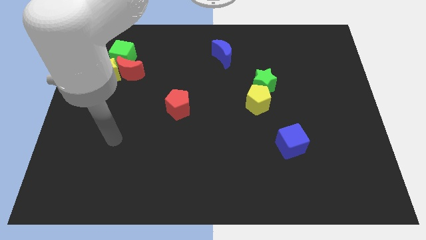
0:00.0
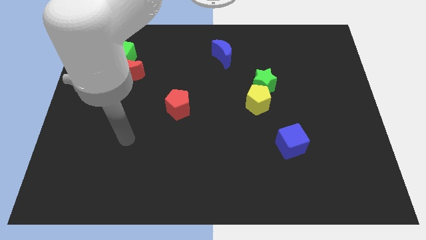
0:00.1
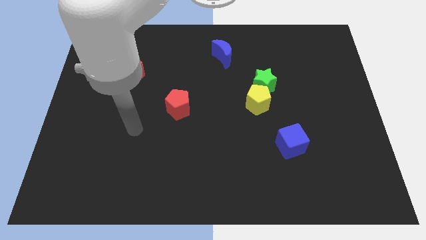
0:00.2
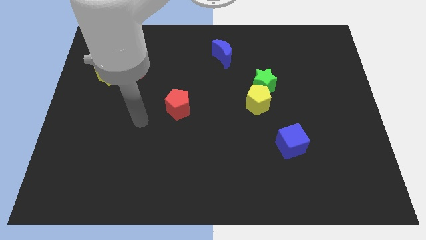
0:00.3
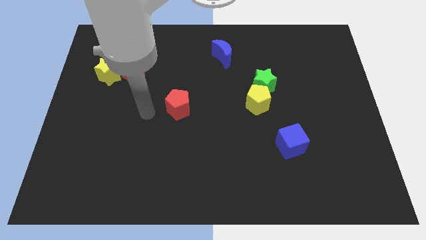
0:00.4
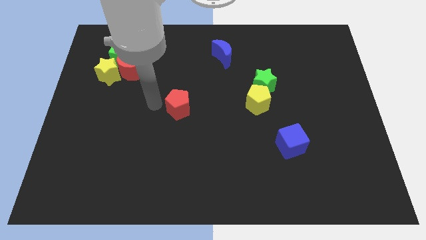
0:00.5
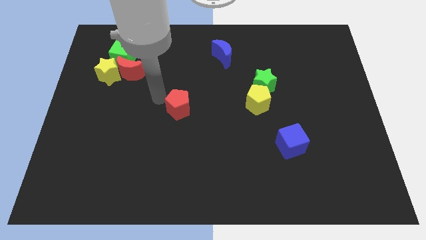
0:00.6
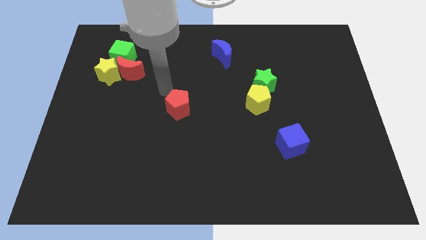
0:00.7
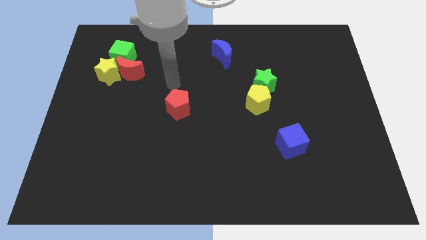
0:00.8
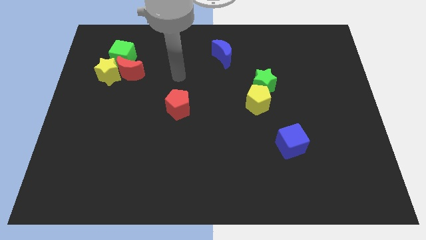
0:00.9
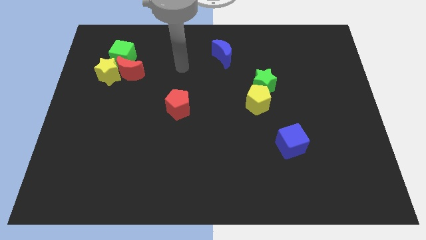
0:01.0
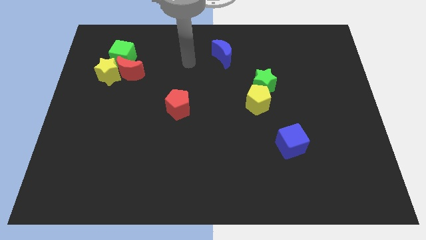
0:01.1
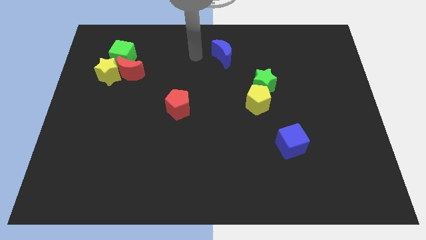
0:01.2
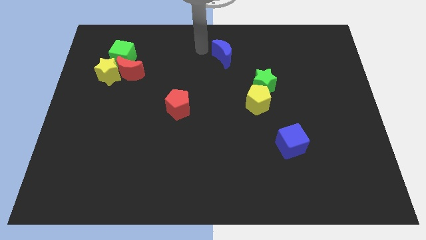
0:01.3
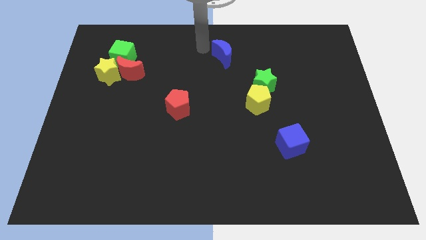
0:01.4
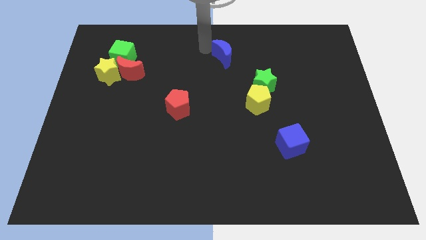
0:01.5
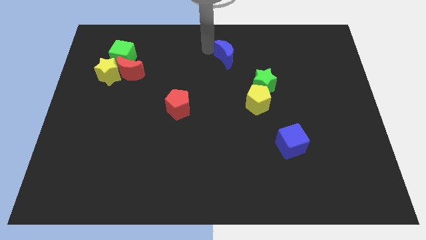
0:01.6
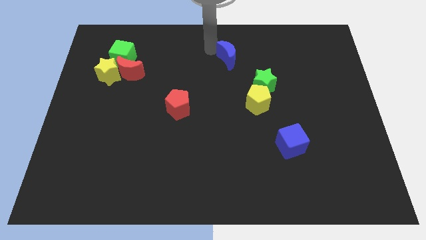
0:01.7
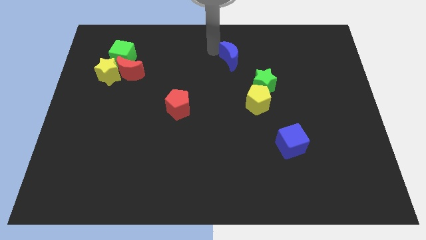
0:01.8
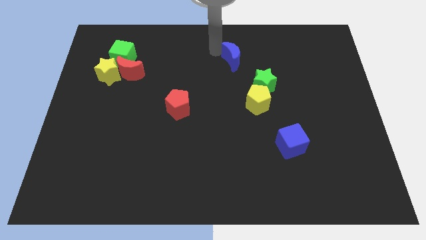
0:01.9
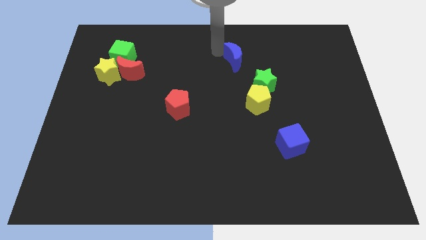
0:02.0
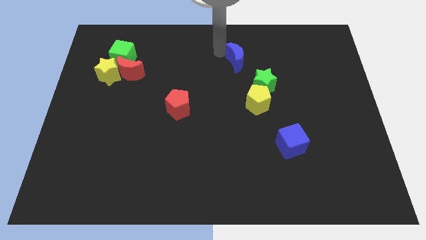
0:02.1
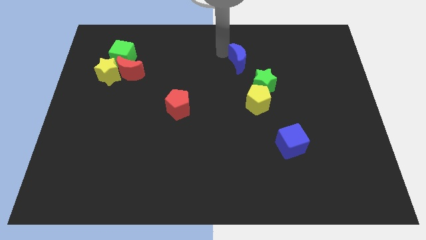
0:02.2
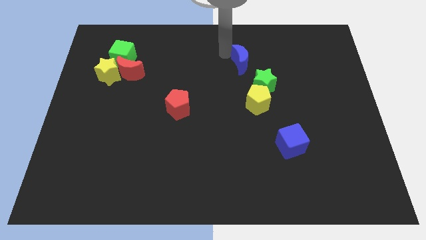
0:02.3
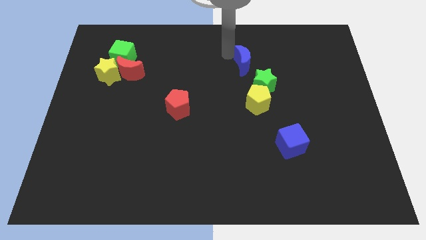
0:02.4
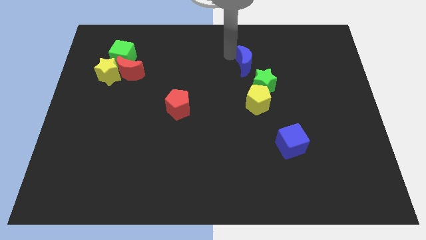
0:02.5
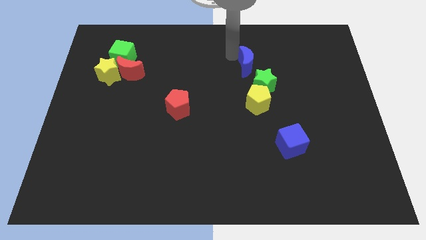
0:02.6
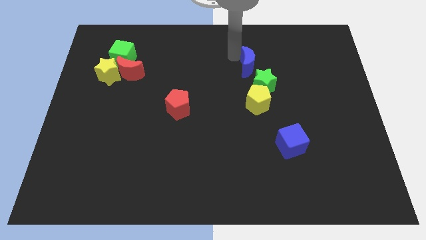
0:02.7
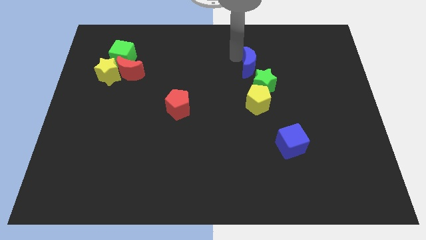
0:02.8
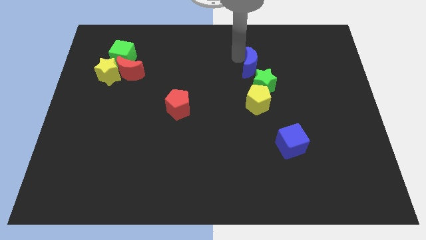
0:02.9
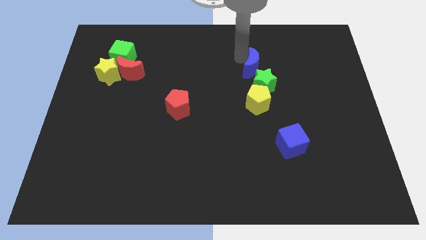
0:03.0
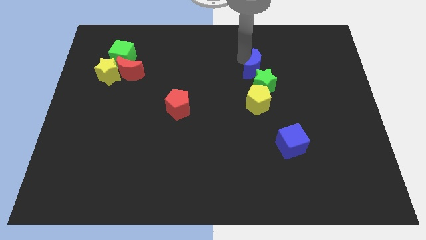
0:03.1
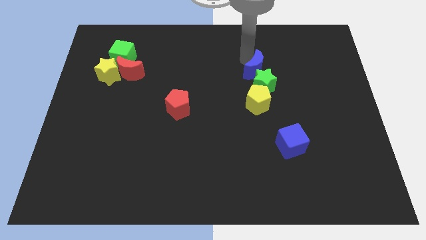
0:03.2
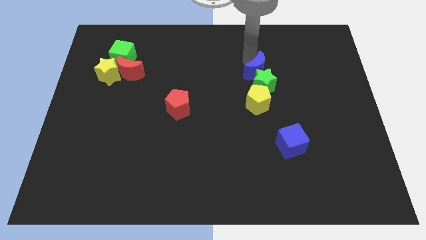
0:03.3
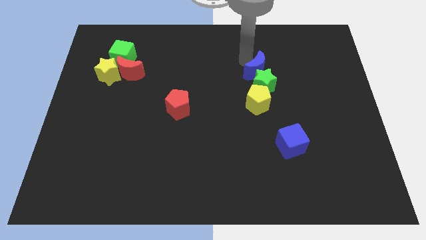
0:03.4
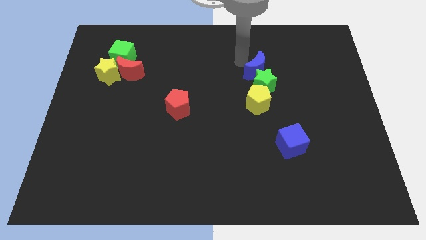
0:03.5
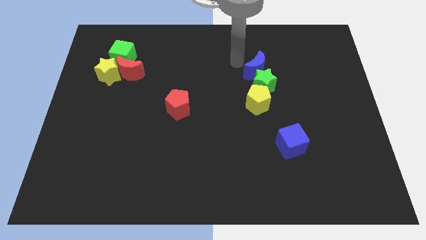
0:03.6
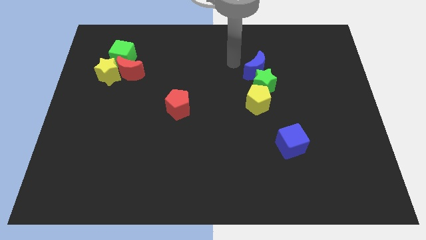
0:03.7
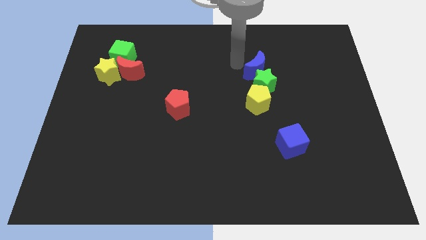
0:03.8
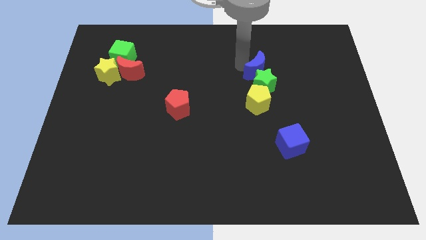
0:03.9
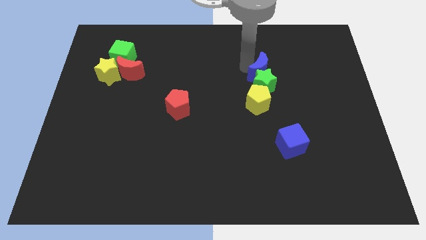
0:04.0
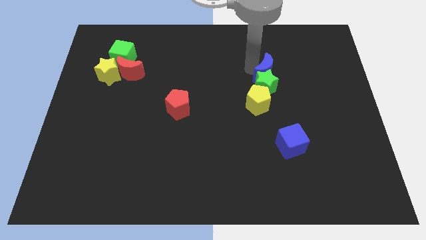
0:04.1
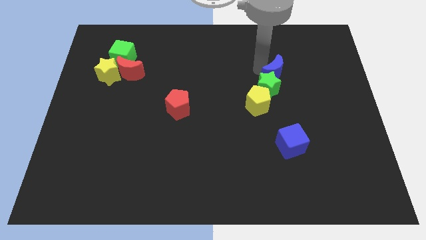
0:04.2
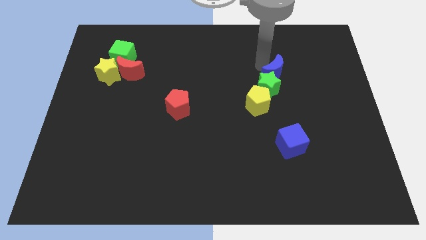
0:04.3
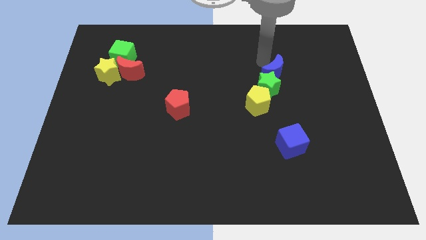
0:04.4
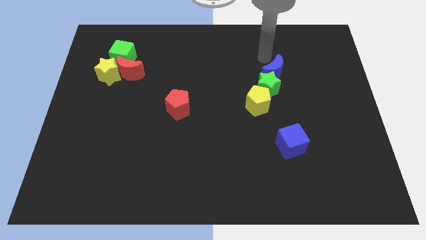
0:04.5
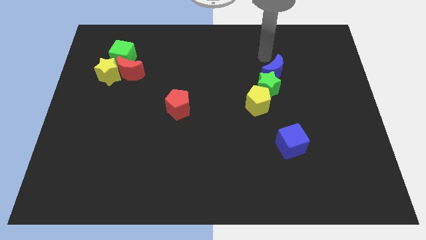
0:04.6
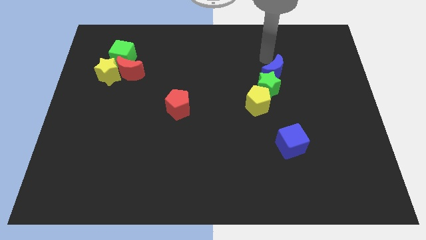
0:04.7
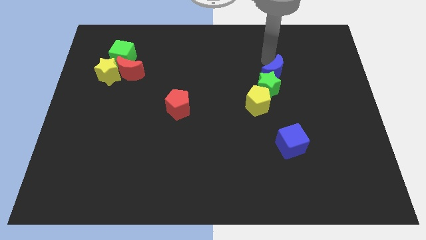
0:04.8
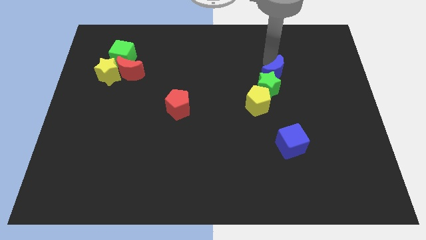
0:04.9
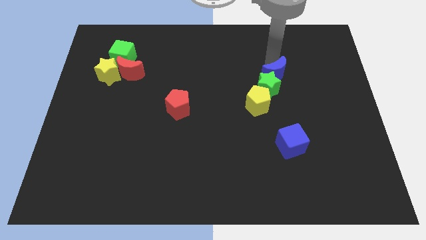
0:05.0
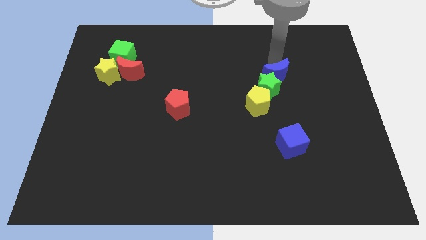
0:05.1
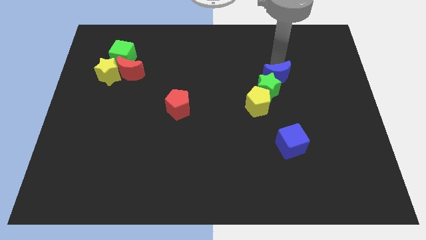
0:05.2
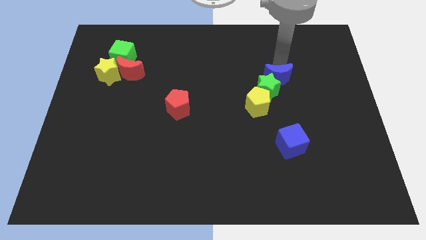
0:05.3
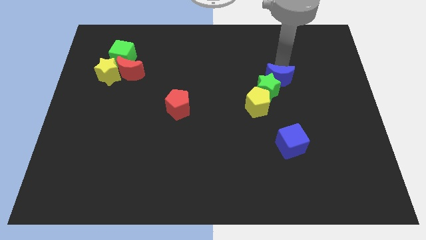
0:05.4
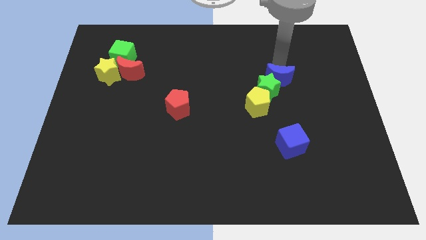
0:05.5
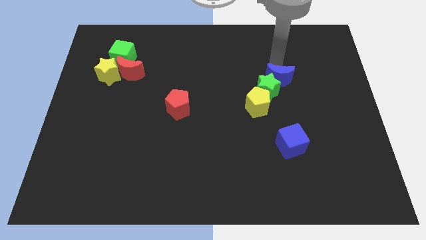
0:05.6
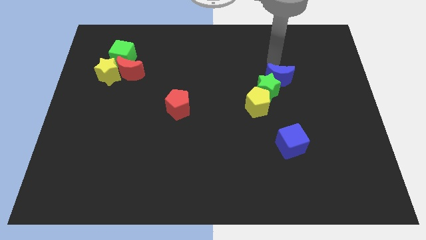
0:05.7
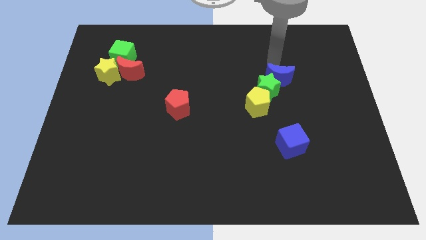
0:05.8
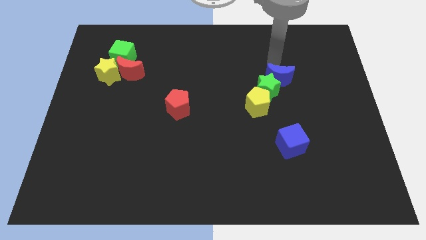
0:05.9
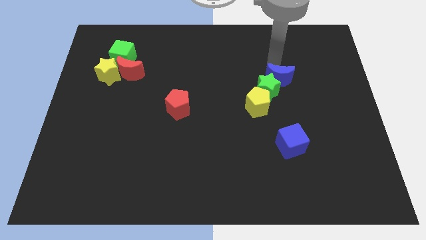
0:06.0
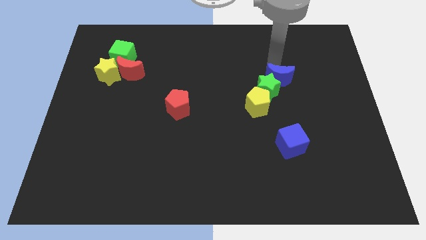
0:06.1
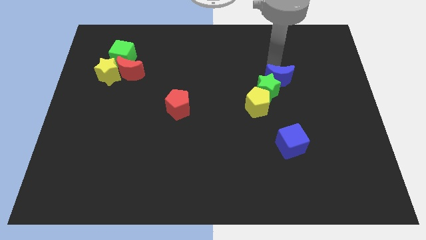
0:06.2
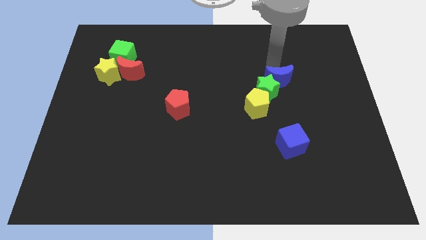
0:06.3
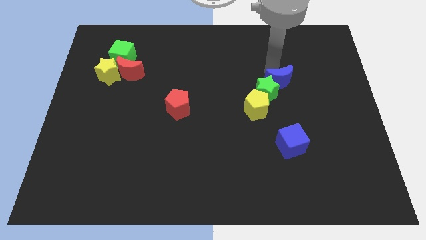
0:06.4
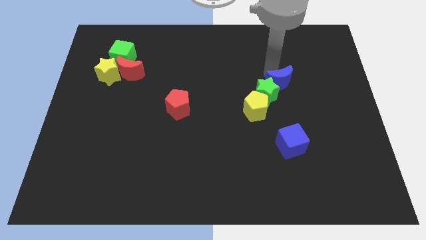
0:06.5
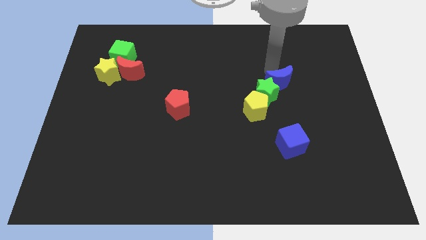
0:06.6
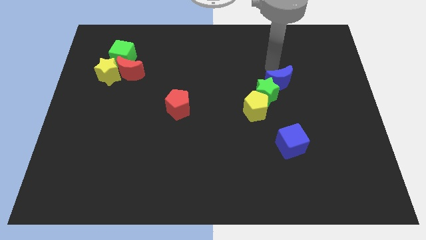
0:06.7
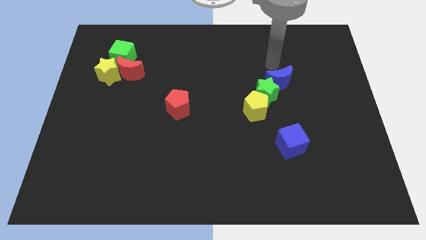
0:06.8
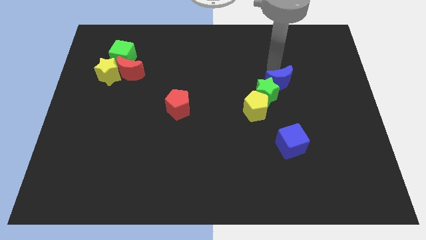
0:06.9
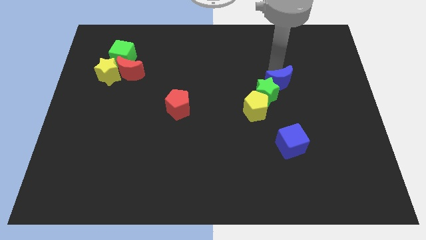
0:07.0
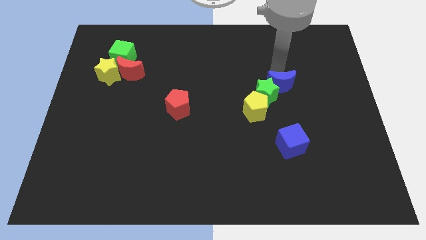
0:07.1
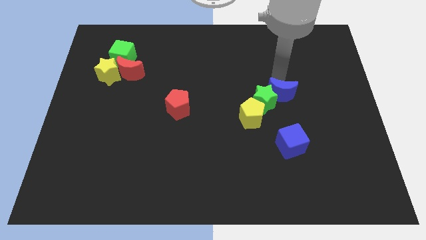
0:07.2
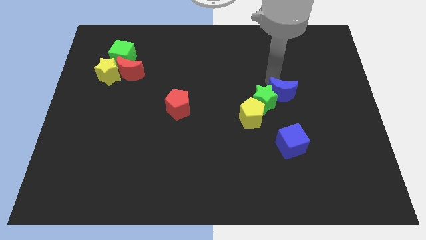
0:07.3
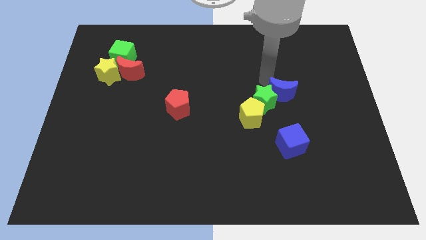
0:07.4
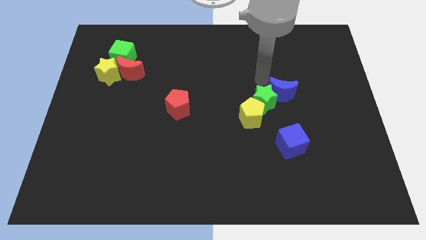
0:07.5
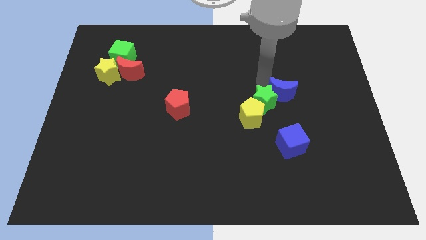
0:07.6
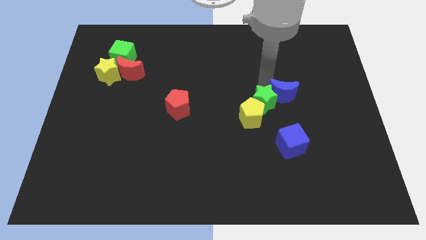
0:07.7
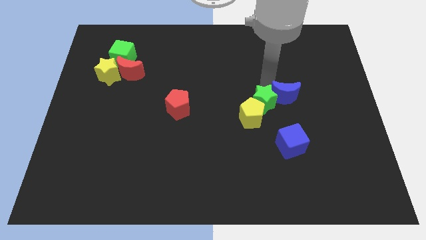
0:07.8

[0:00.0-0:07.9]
move the blue moon down and to the right

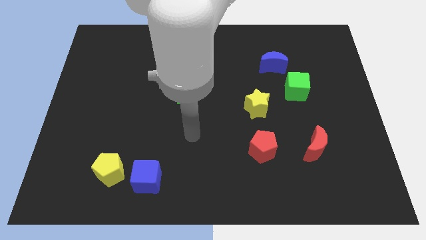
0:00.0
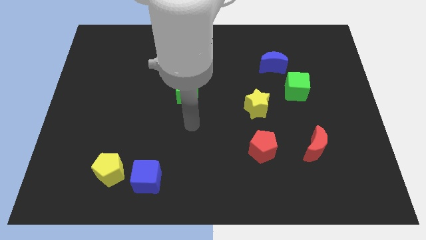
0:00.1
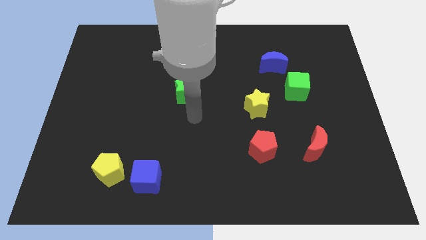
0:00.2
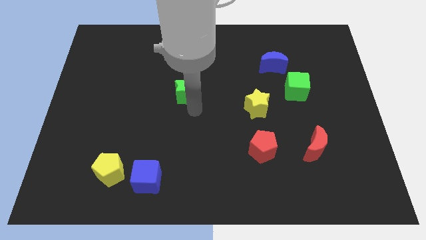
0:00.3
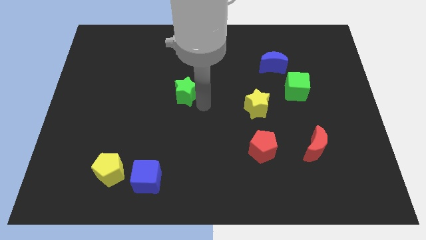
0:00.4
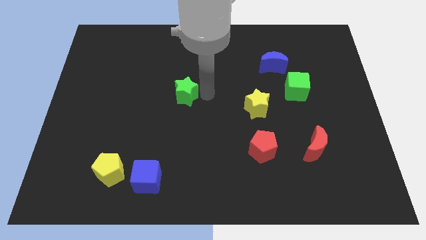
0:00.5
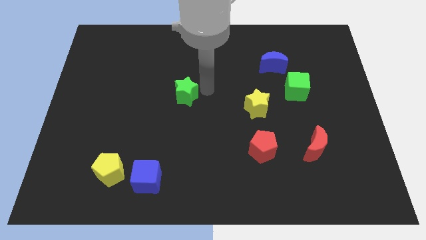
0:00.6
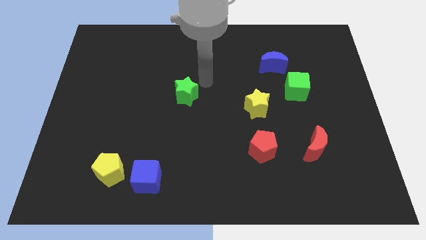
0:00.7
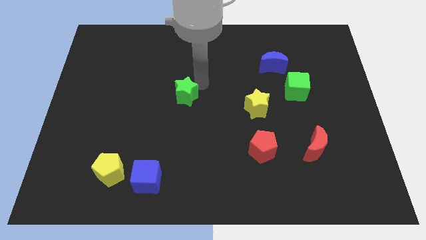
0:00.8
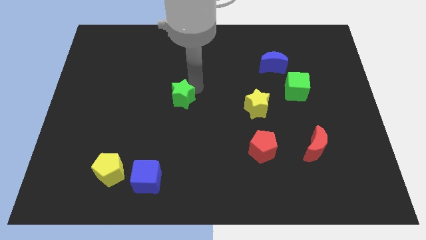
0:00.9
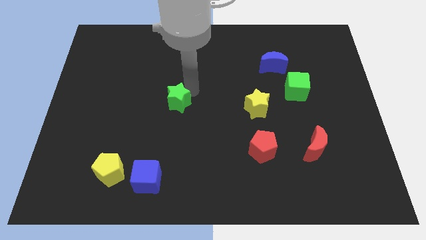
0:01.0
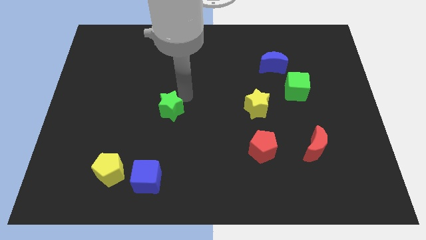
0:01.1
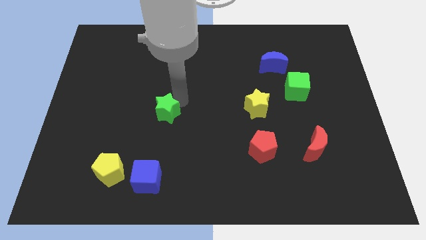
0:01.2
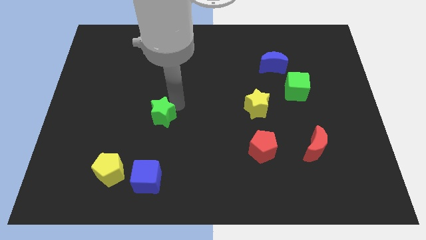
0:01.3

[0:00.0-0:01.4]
push the green star down and then to the left a bit
